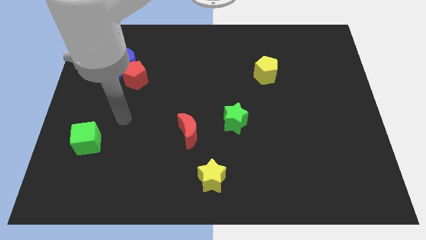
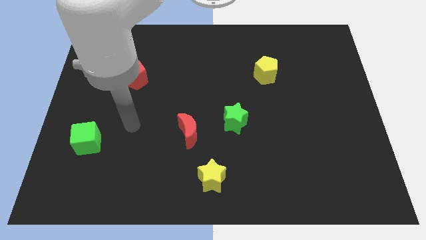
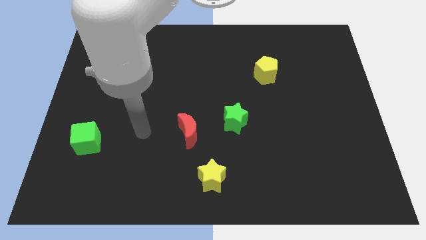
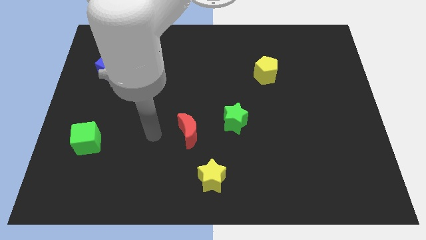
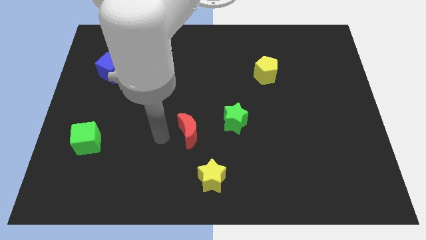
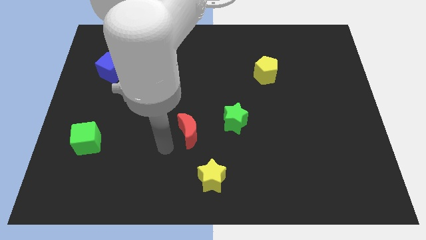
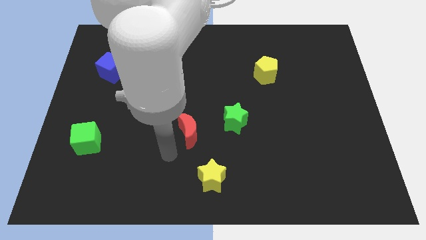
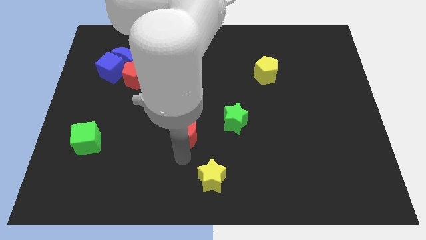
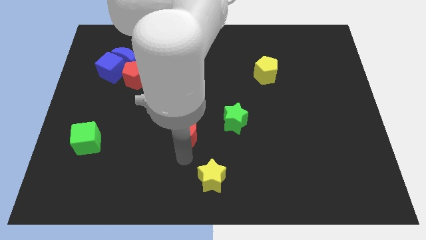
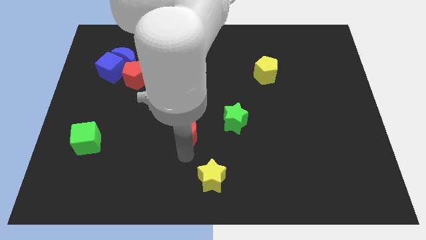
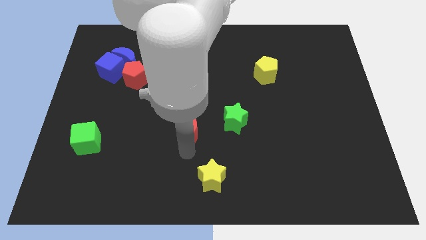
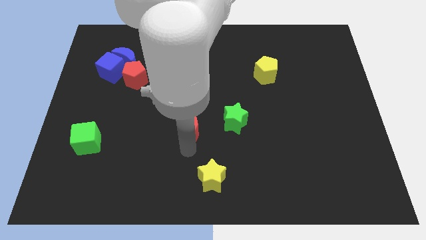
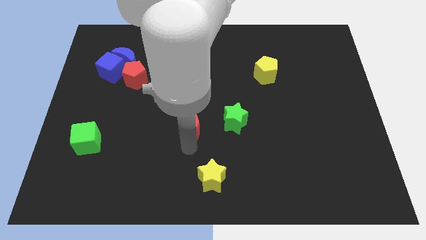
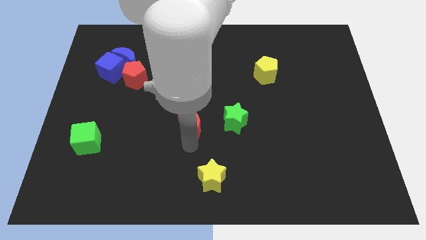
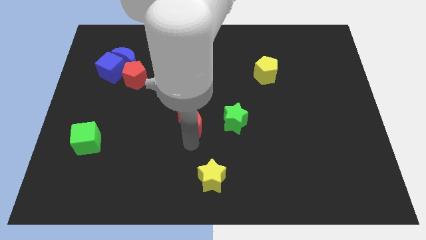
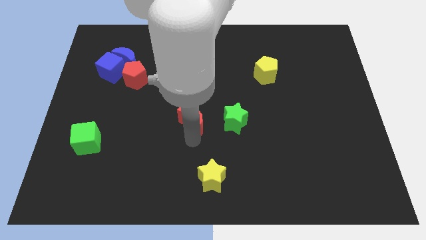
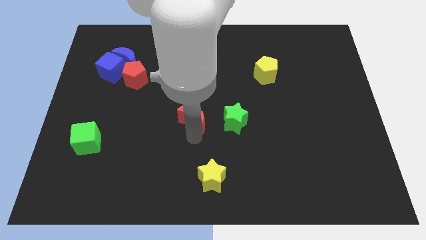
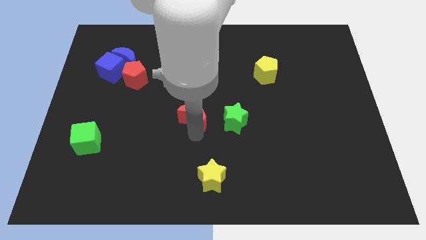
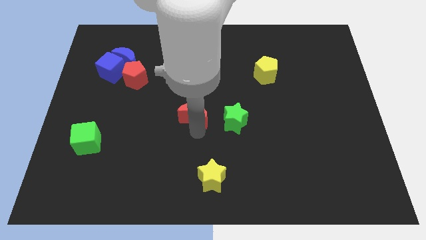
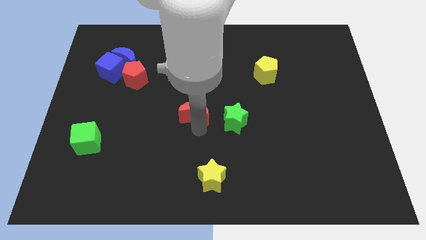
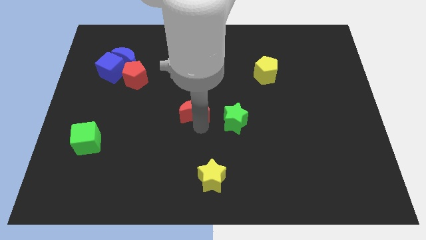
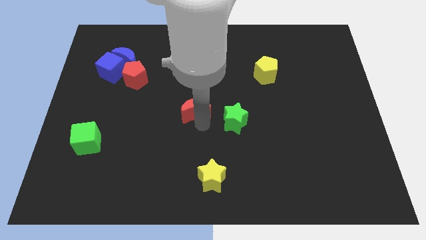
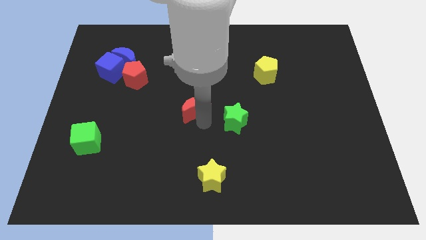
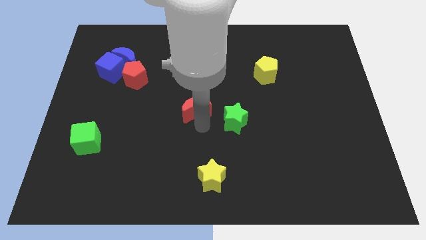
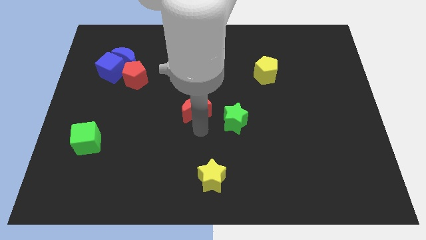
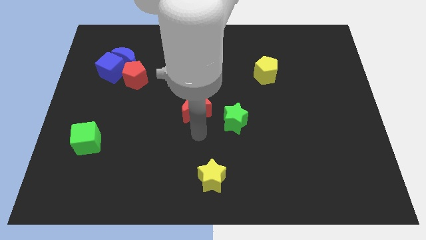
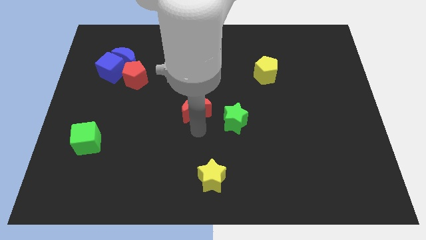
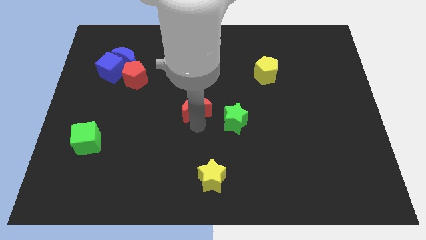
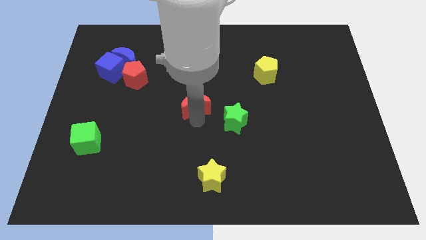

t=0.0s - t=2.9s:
push the red moon slightly upwards

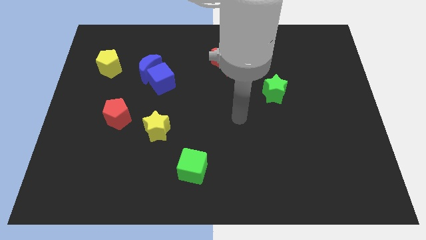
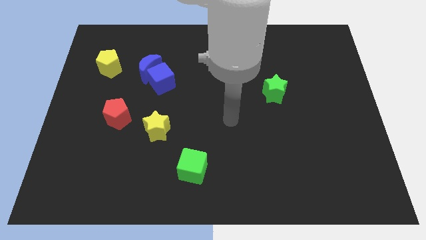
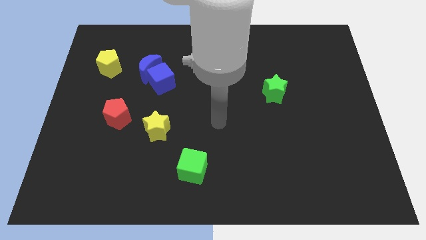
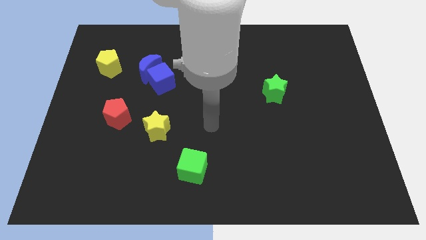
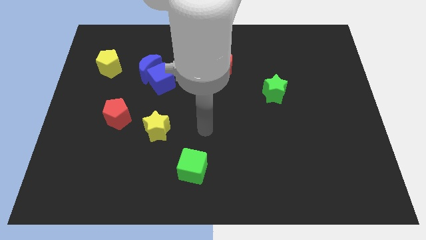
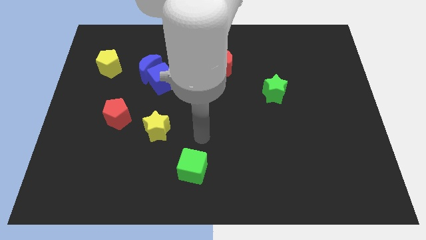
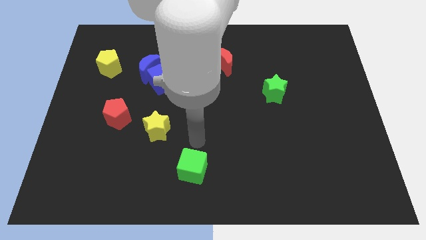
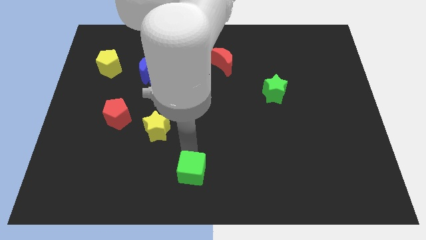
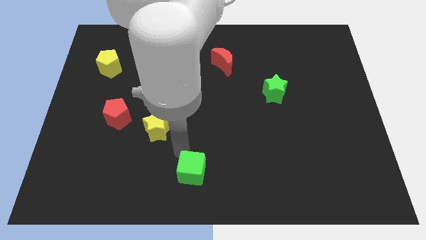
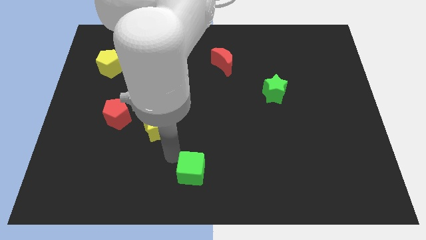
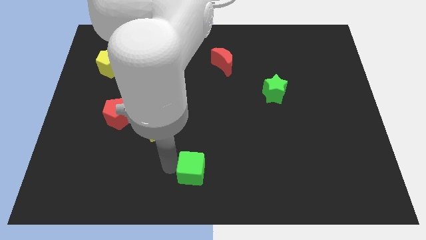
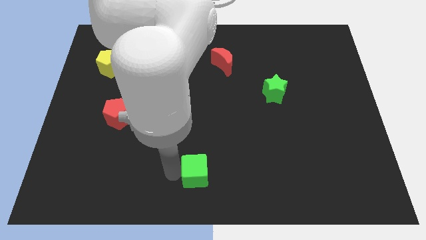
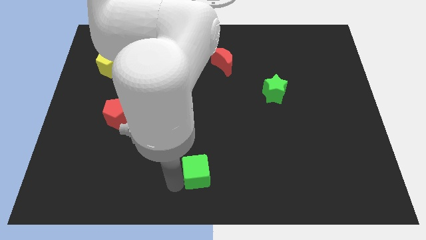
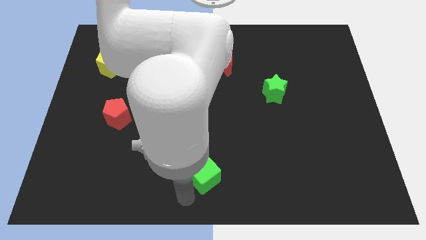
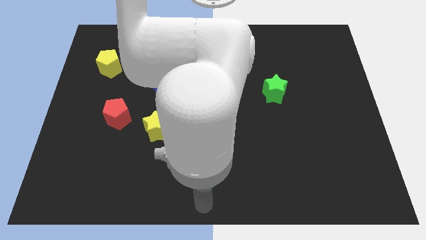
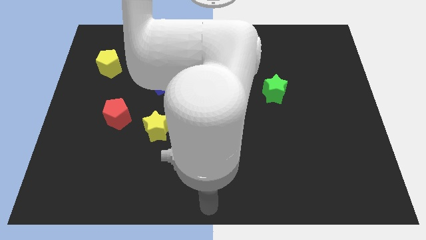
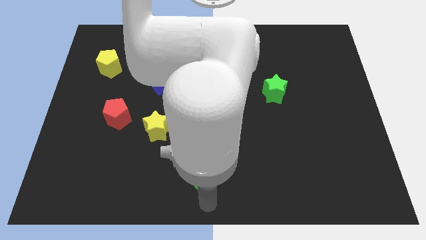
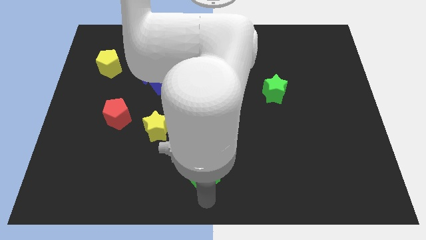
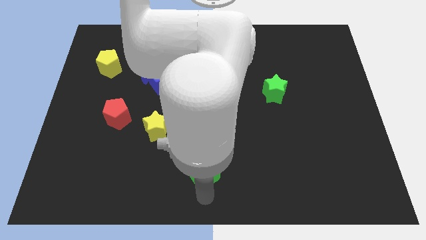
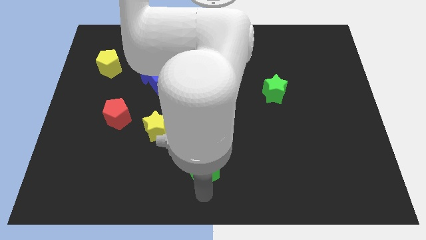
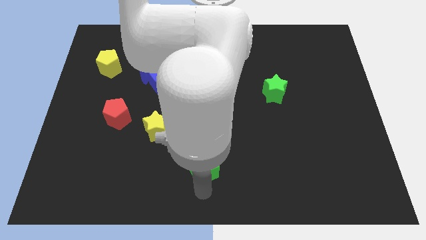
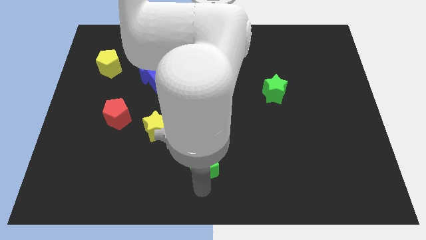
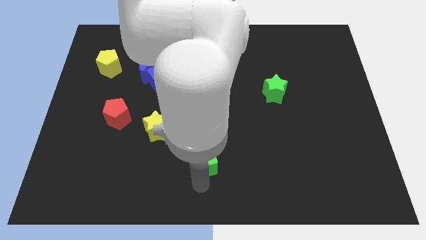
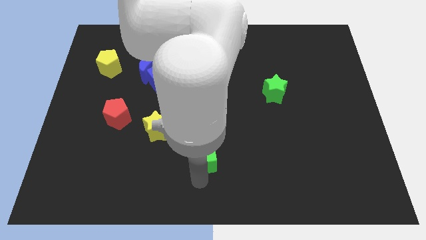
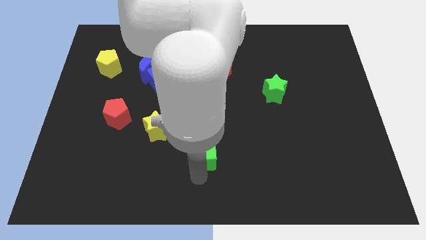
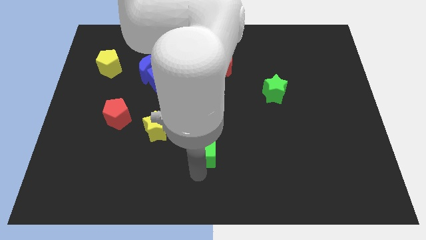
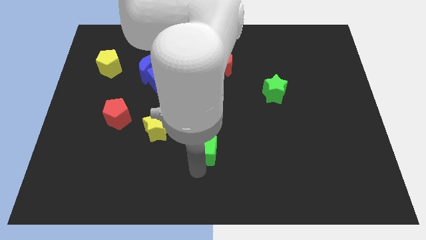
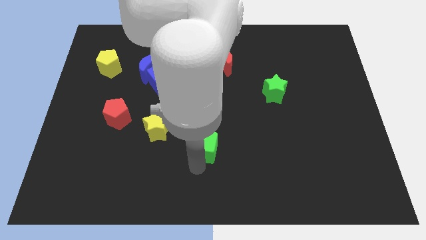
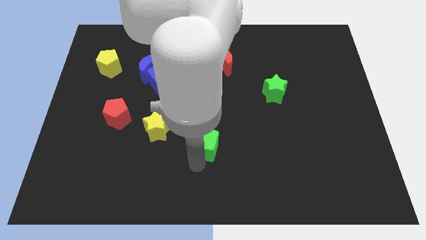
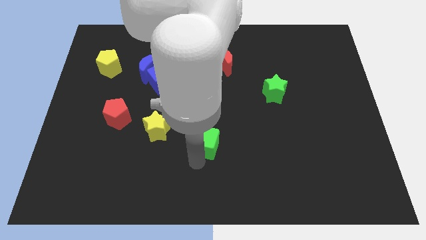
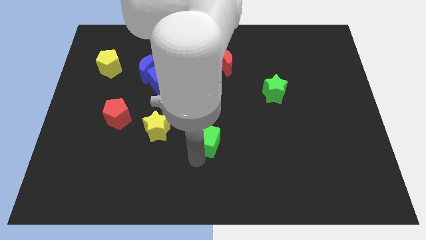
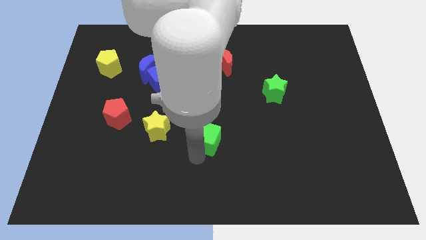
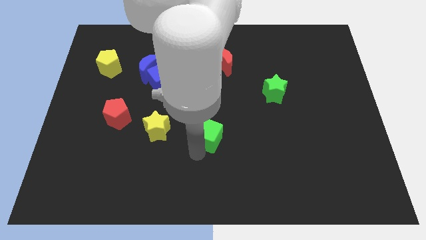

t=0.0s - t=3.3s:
slide the green cube somewhat diagonally upwards and right

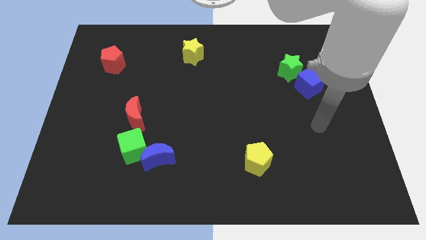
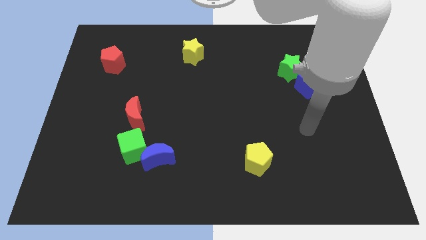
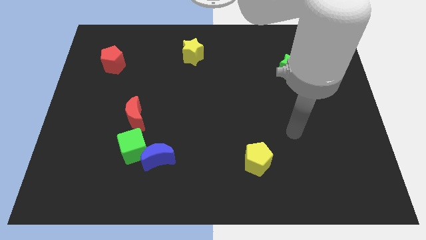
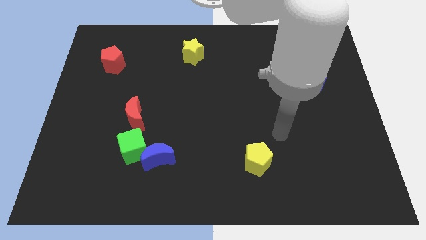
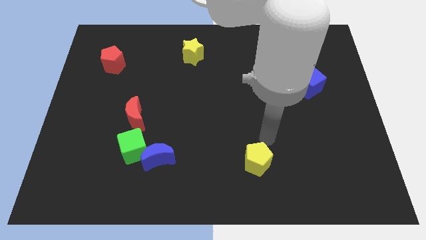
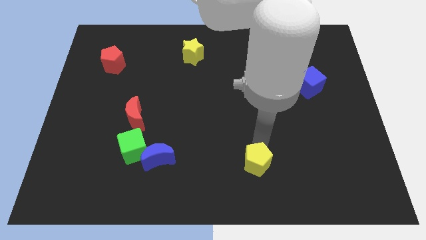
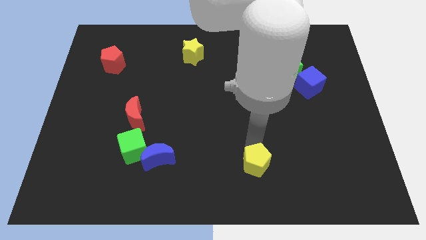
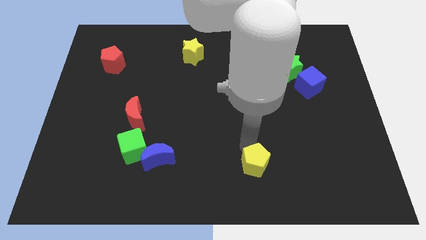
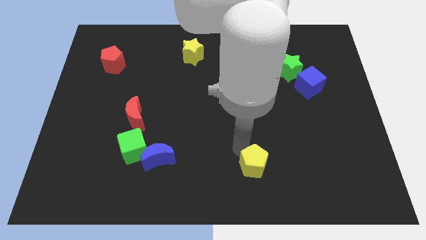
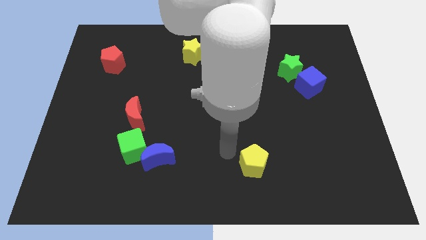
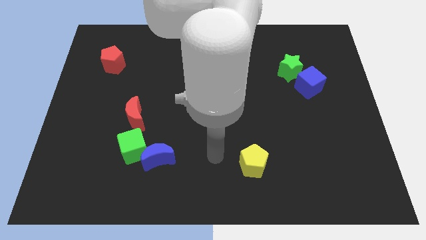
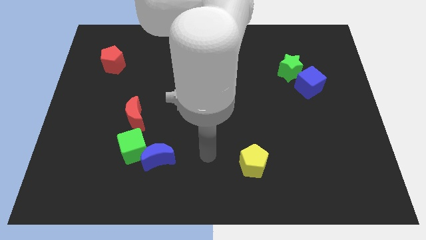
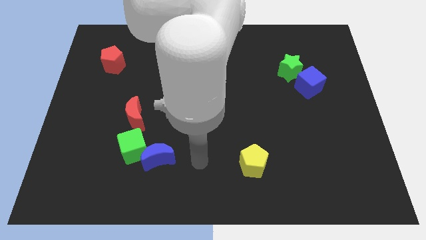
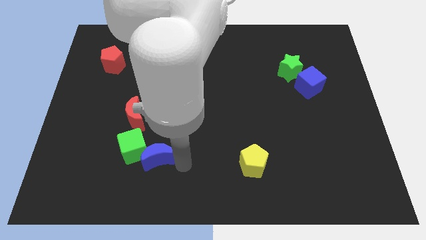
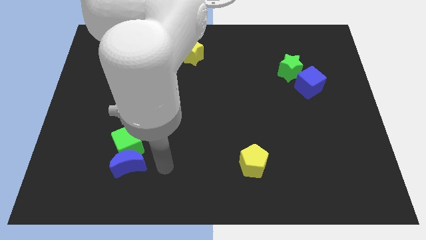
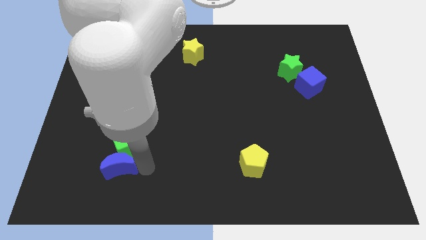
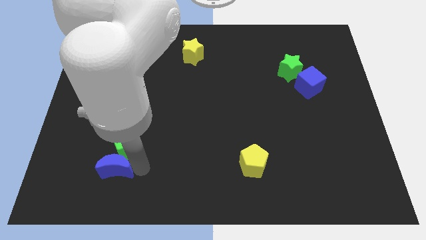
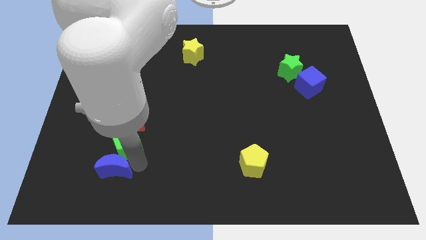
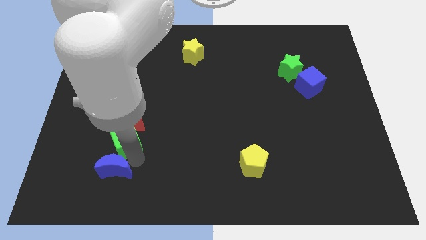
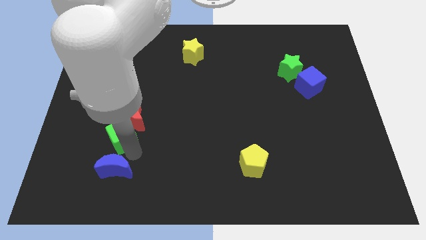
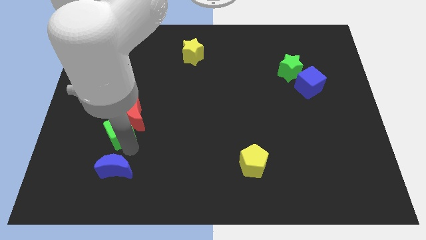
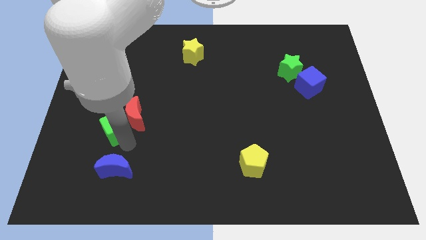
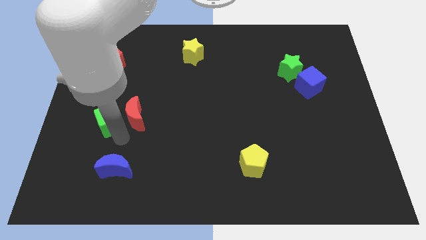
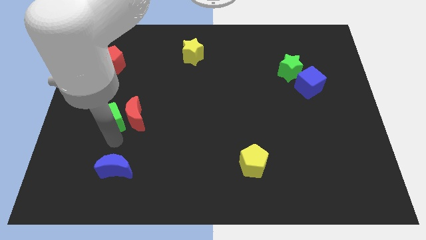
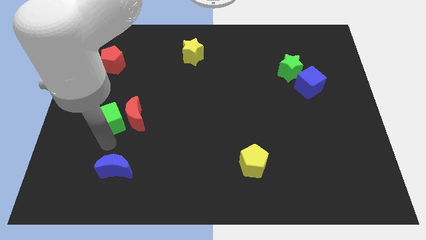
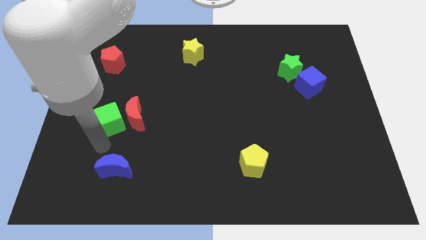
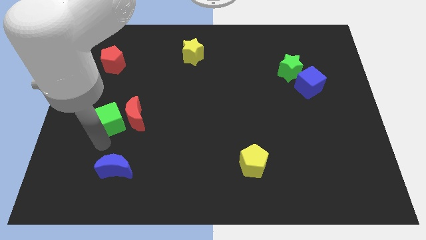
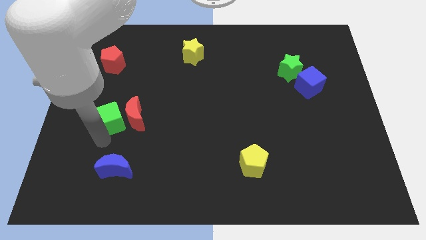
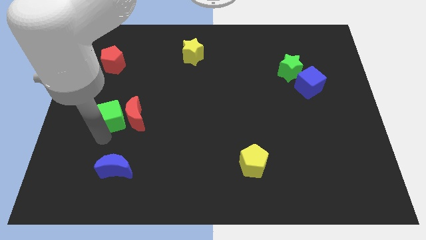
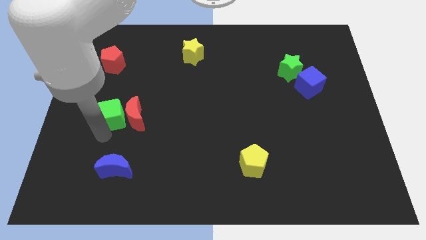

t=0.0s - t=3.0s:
slightly push the green cube up
